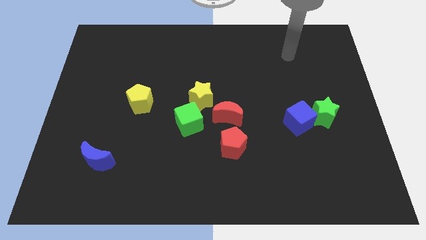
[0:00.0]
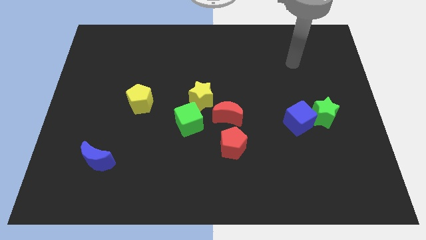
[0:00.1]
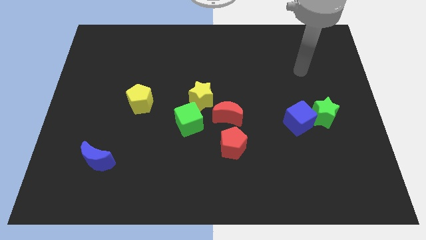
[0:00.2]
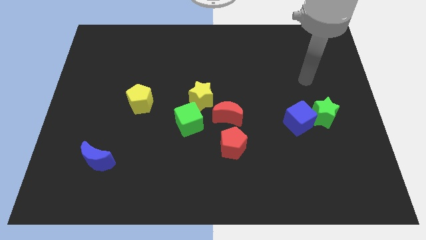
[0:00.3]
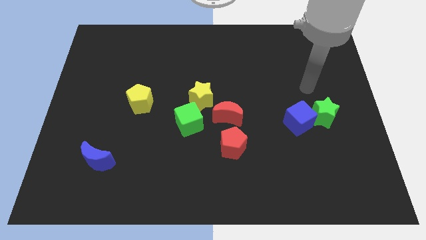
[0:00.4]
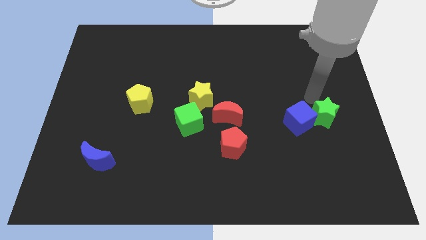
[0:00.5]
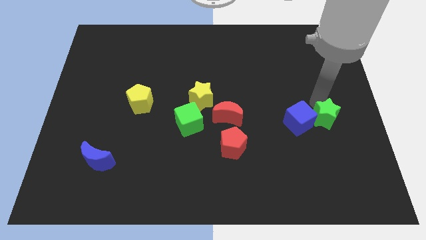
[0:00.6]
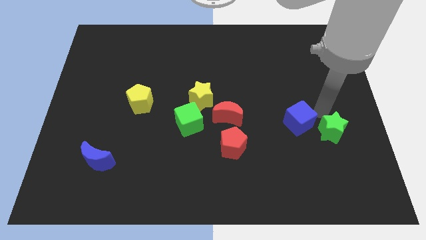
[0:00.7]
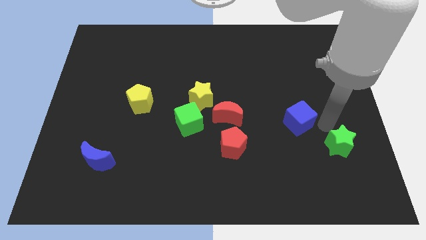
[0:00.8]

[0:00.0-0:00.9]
pull the blue cube apart from the green star

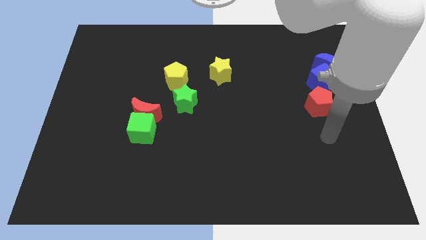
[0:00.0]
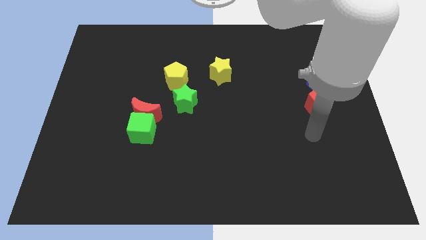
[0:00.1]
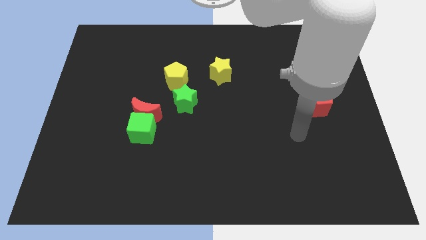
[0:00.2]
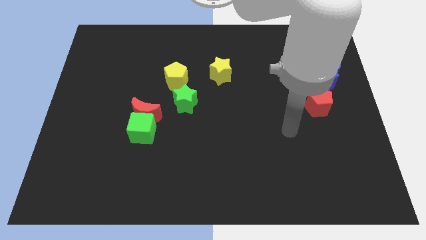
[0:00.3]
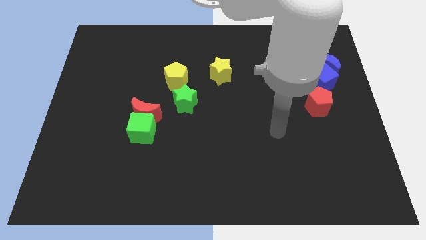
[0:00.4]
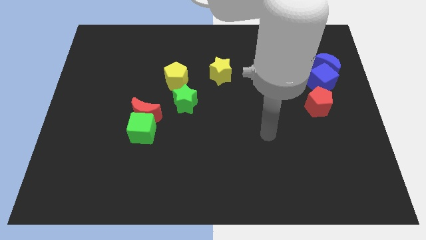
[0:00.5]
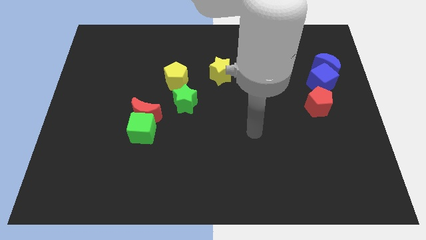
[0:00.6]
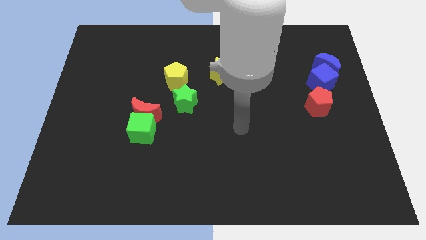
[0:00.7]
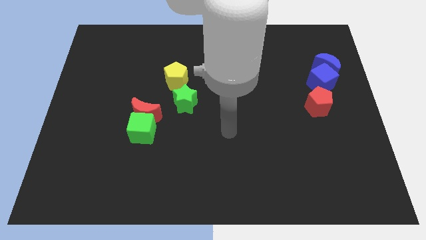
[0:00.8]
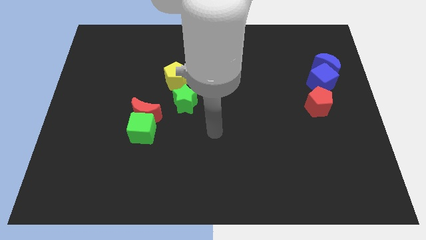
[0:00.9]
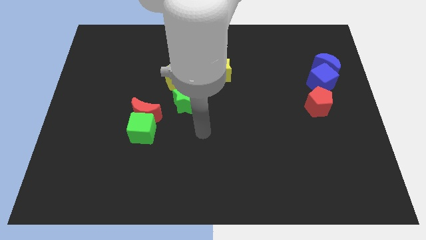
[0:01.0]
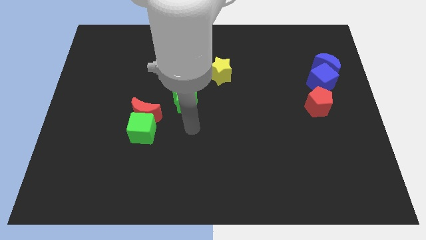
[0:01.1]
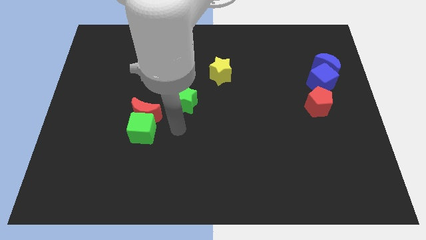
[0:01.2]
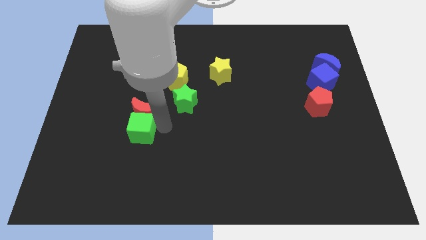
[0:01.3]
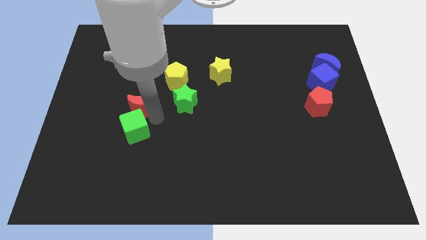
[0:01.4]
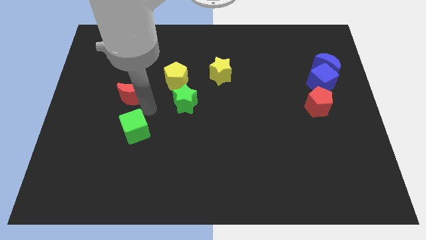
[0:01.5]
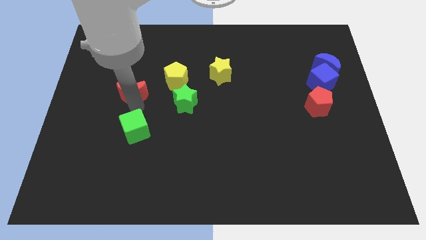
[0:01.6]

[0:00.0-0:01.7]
separate the green cube from the red moon

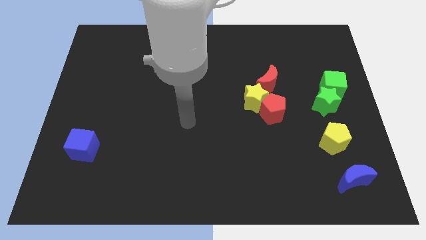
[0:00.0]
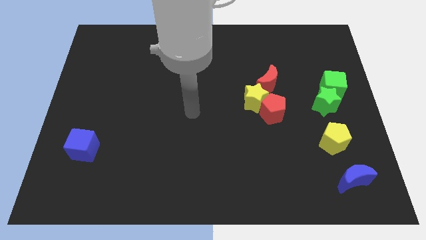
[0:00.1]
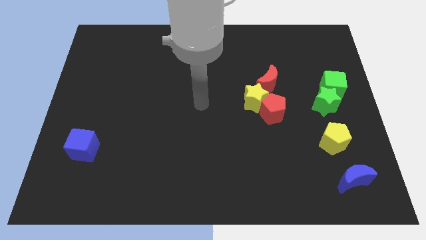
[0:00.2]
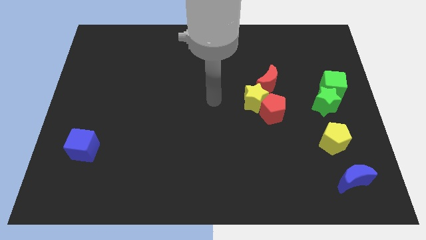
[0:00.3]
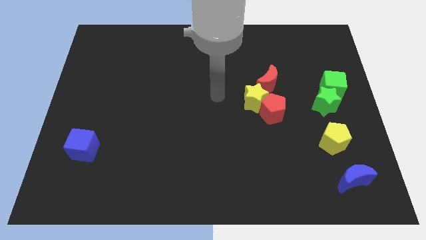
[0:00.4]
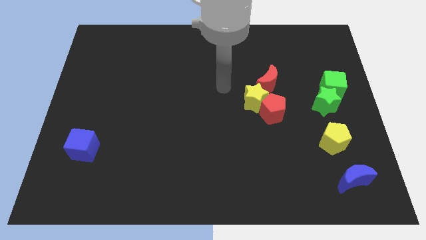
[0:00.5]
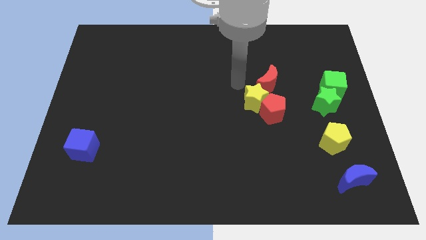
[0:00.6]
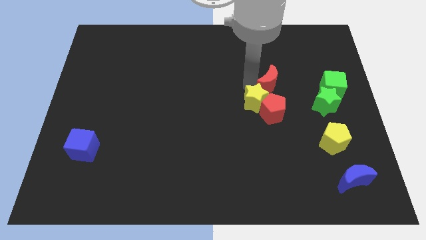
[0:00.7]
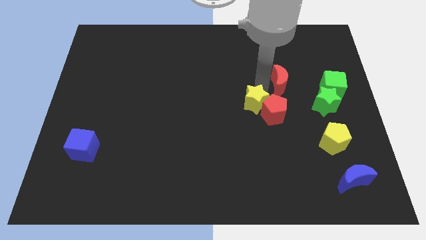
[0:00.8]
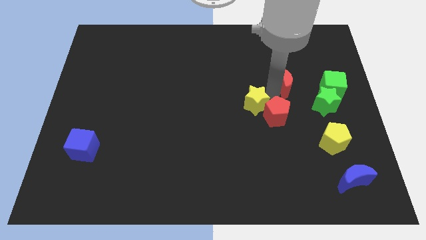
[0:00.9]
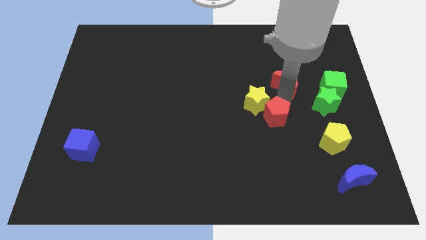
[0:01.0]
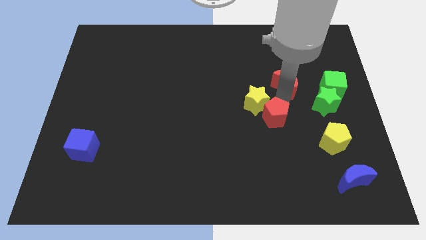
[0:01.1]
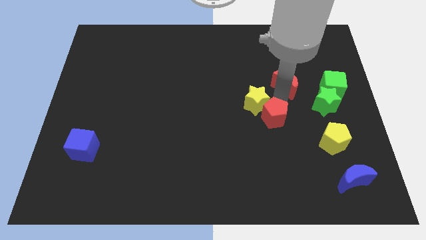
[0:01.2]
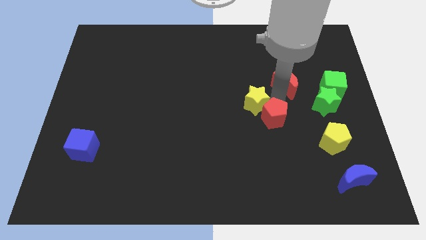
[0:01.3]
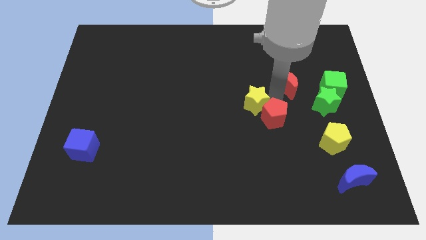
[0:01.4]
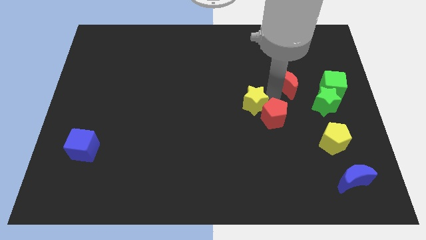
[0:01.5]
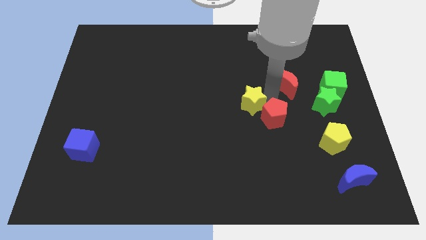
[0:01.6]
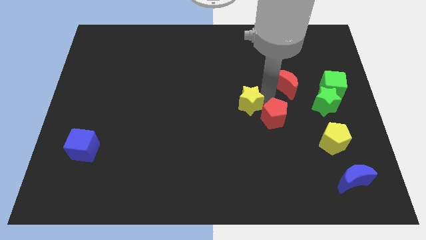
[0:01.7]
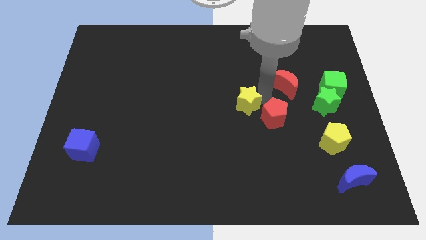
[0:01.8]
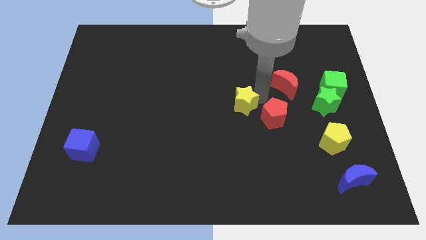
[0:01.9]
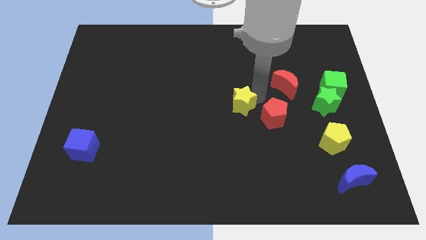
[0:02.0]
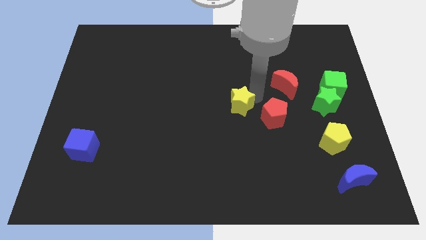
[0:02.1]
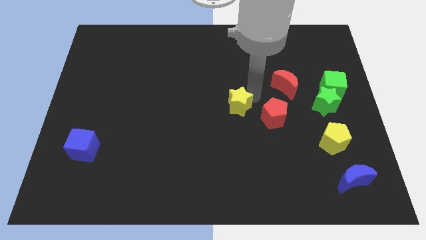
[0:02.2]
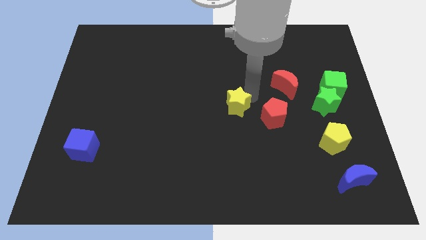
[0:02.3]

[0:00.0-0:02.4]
separate the yellow star from the red pentagon and red moon

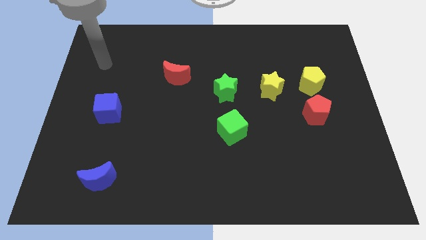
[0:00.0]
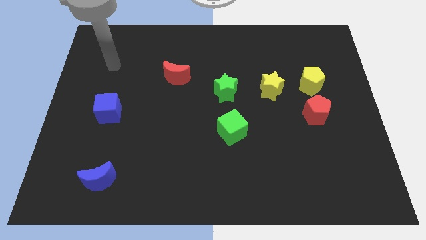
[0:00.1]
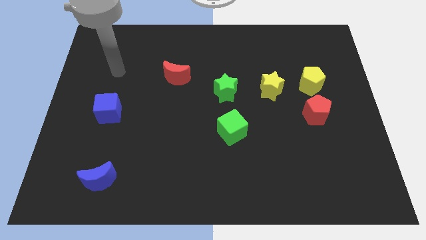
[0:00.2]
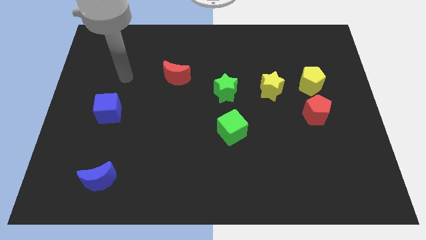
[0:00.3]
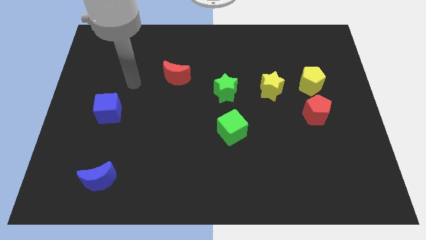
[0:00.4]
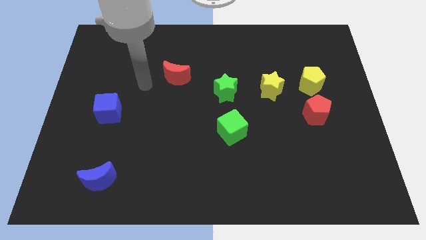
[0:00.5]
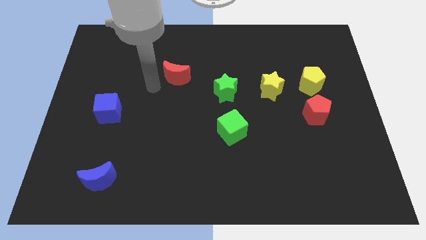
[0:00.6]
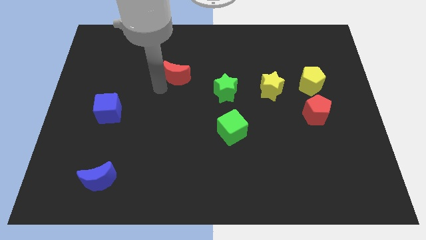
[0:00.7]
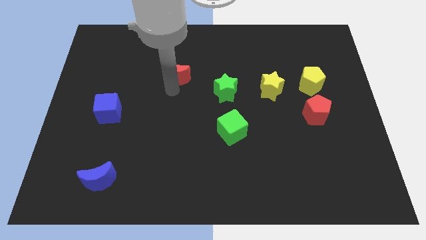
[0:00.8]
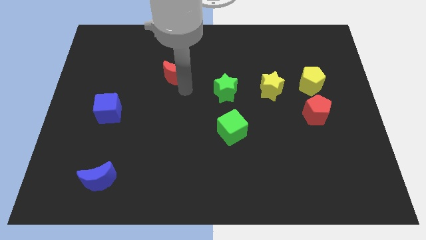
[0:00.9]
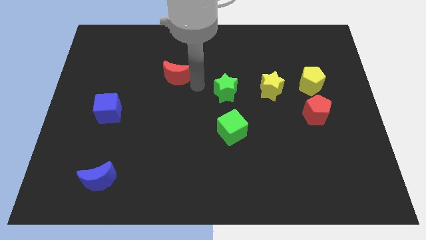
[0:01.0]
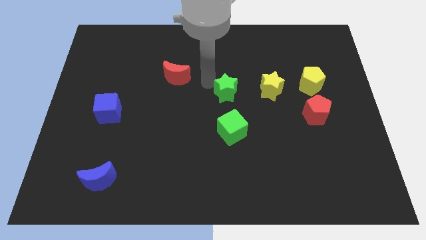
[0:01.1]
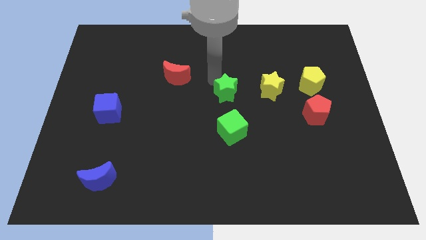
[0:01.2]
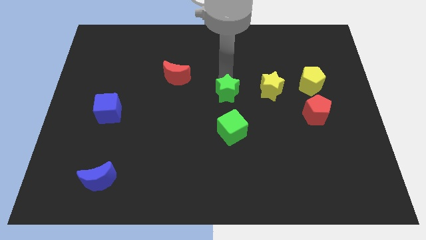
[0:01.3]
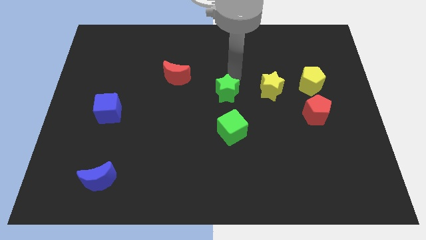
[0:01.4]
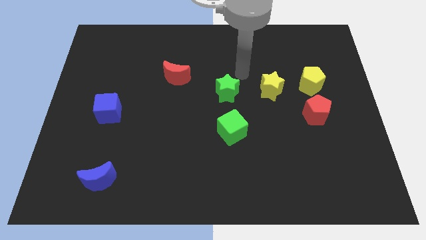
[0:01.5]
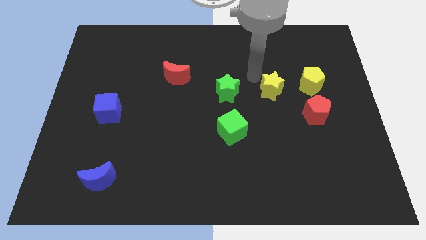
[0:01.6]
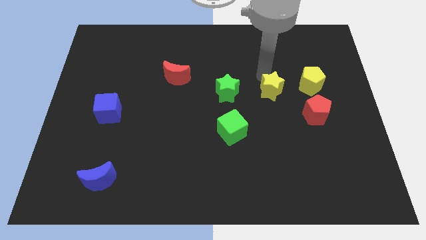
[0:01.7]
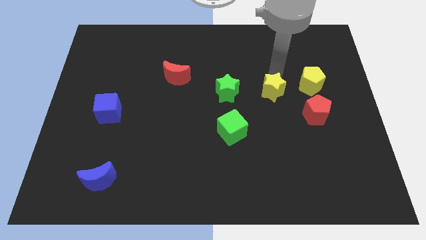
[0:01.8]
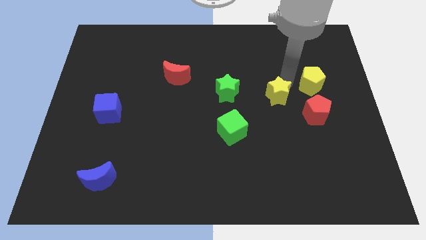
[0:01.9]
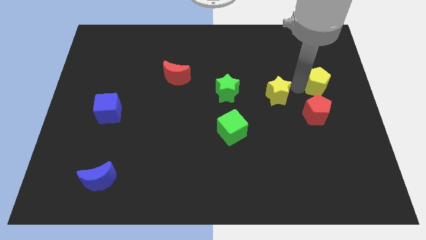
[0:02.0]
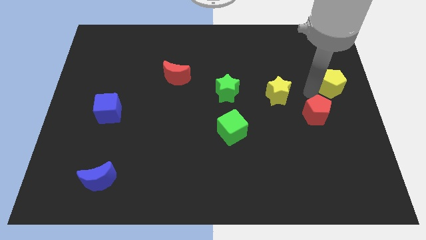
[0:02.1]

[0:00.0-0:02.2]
separate the red pentagon from the yellow pentagon

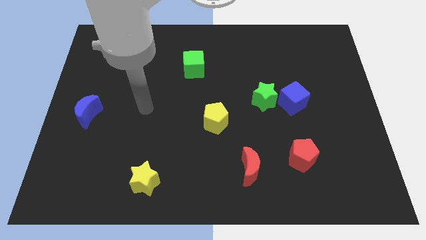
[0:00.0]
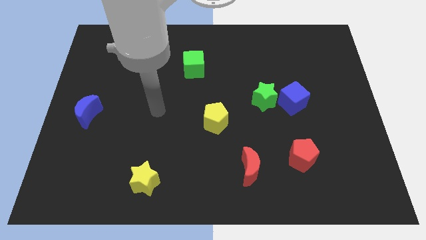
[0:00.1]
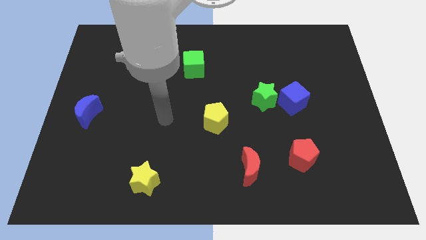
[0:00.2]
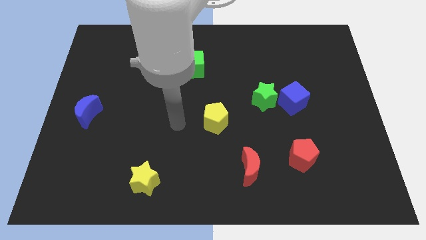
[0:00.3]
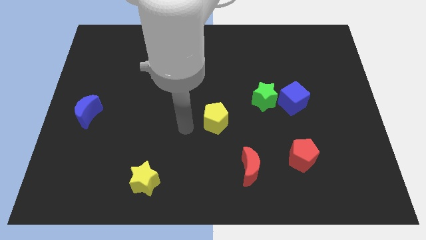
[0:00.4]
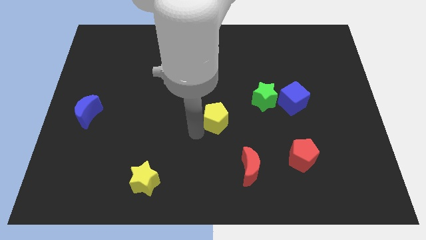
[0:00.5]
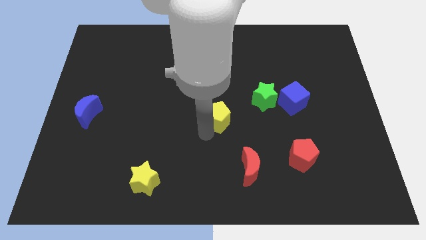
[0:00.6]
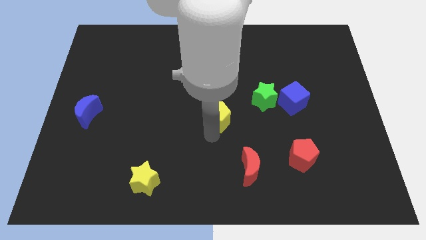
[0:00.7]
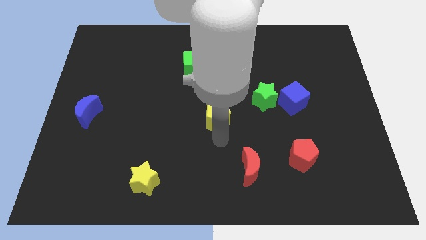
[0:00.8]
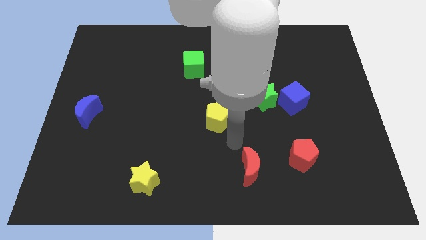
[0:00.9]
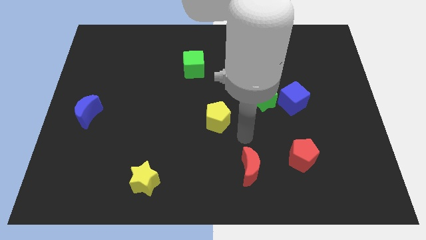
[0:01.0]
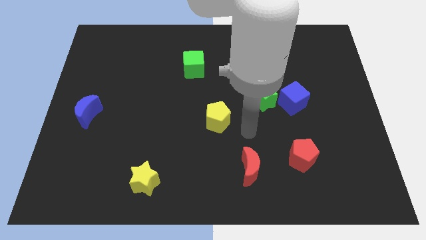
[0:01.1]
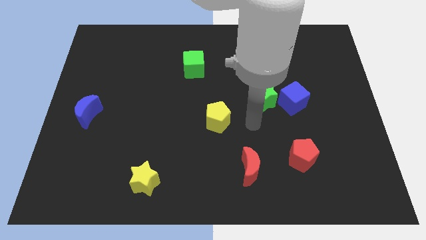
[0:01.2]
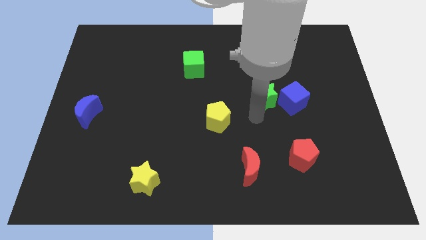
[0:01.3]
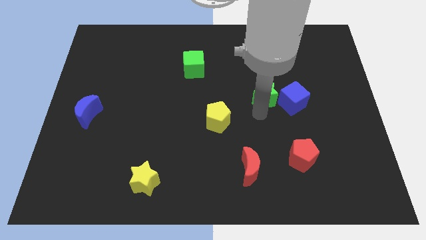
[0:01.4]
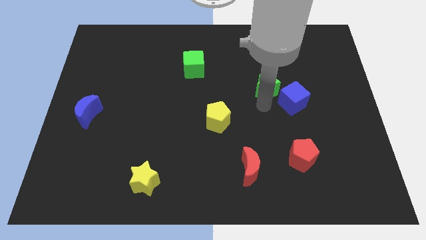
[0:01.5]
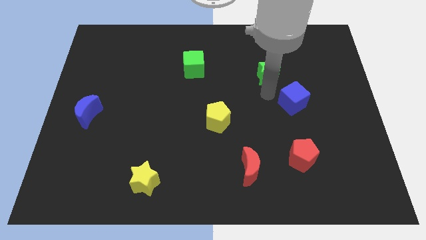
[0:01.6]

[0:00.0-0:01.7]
move the blue cube away from the green star

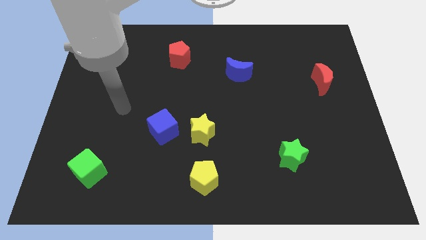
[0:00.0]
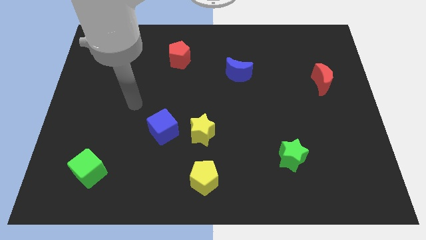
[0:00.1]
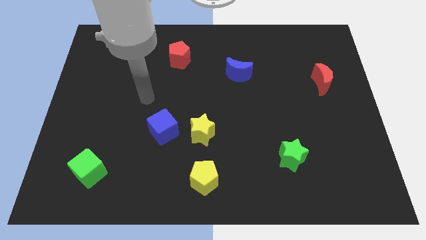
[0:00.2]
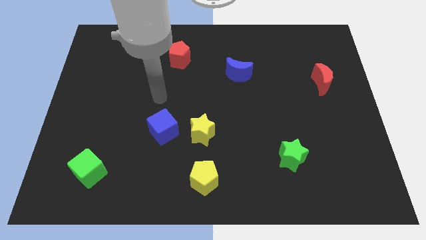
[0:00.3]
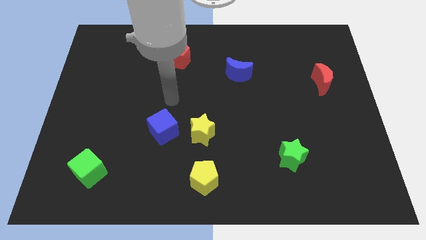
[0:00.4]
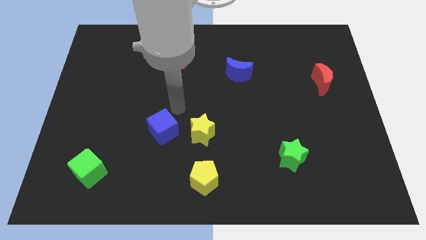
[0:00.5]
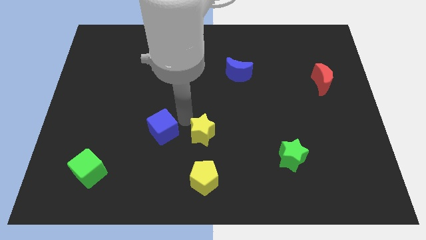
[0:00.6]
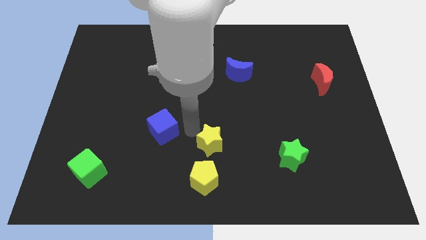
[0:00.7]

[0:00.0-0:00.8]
move the blue cube away from the yellow star
